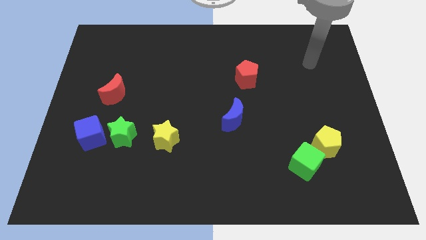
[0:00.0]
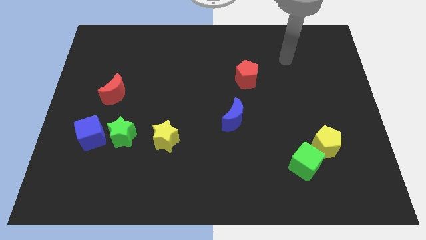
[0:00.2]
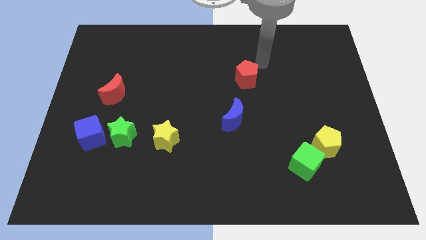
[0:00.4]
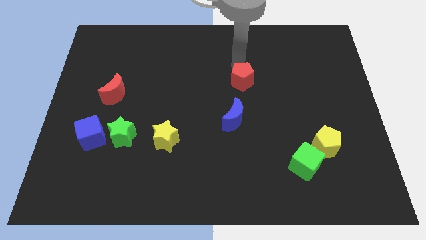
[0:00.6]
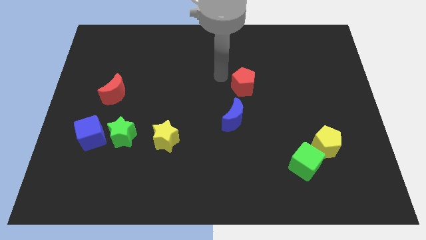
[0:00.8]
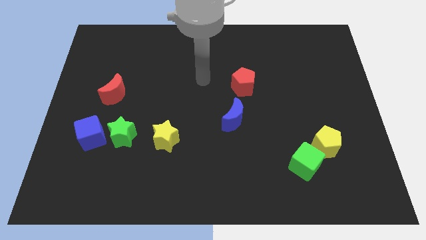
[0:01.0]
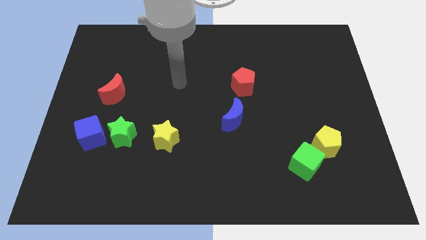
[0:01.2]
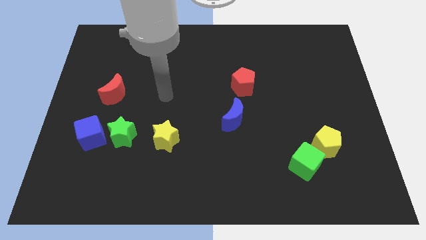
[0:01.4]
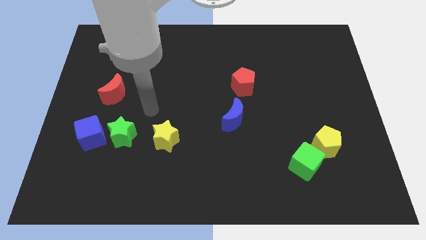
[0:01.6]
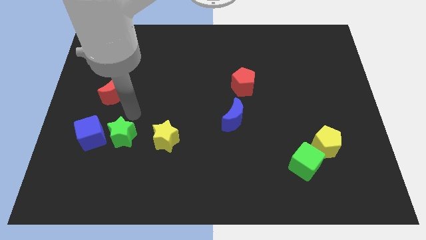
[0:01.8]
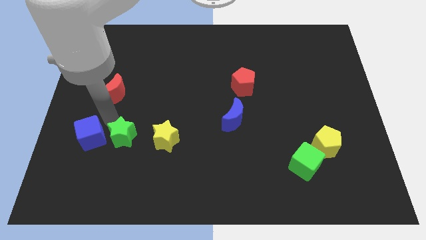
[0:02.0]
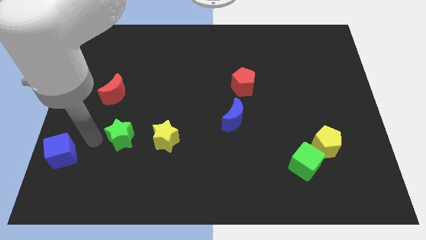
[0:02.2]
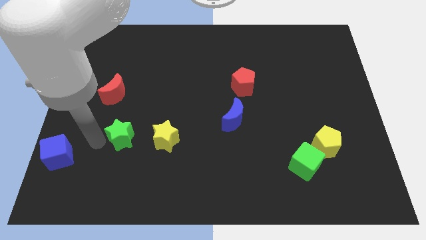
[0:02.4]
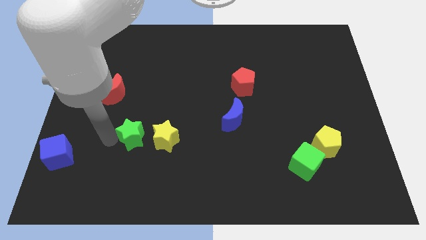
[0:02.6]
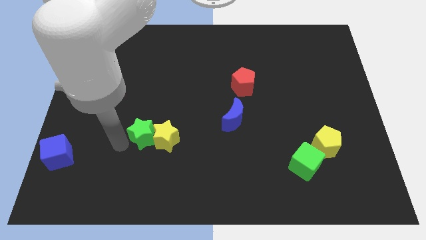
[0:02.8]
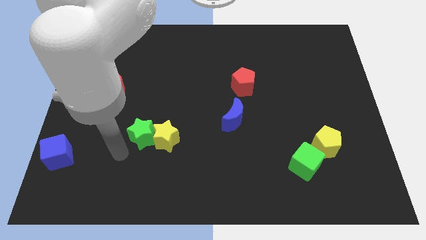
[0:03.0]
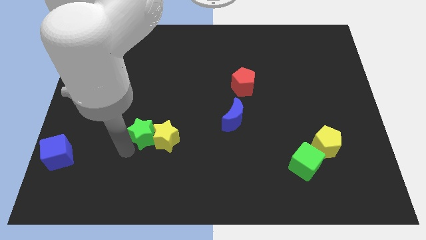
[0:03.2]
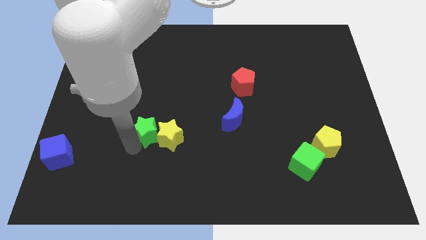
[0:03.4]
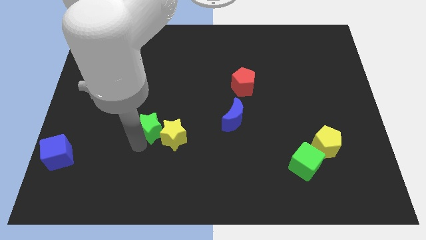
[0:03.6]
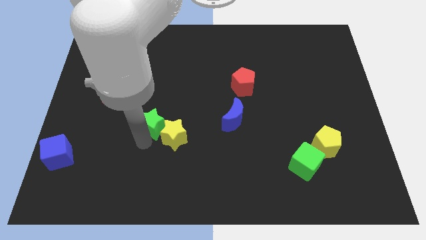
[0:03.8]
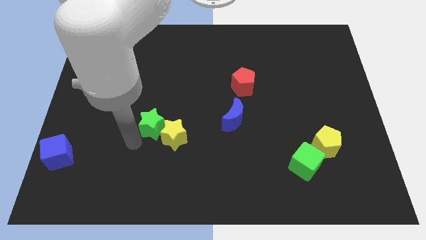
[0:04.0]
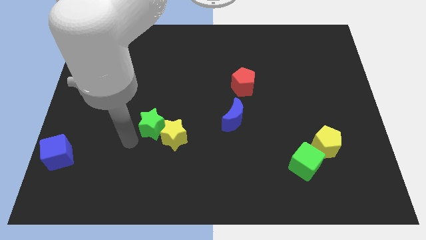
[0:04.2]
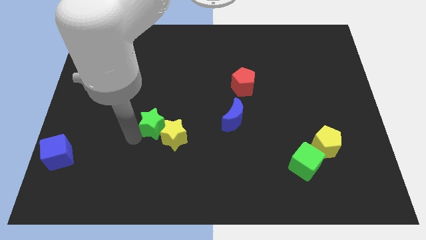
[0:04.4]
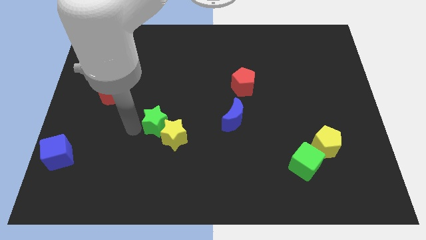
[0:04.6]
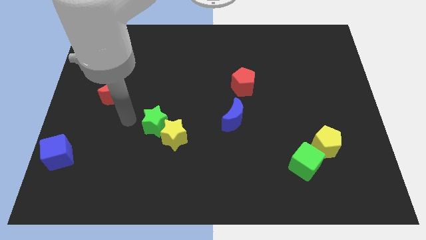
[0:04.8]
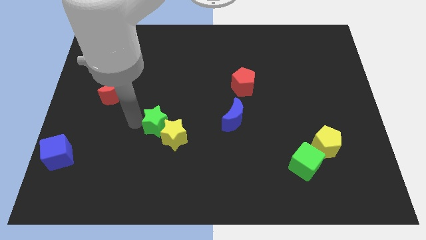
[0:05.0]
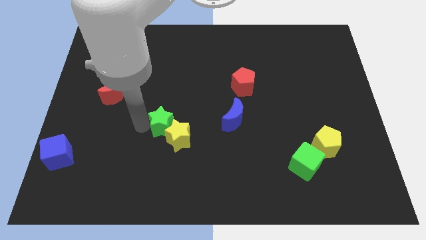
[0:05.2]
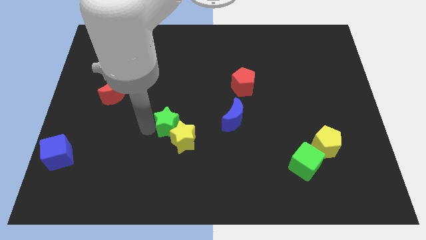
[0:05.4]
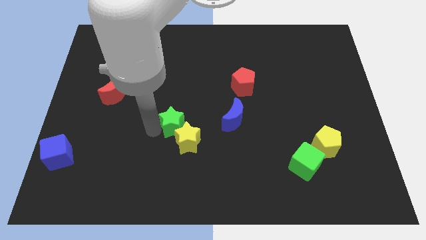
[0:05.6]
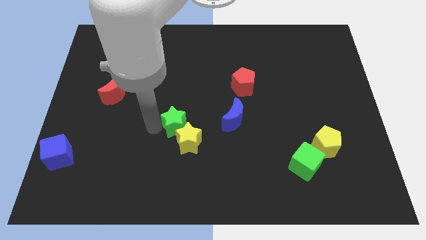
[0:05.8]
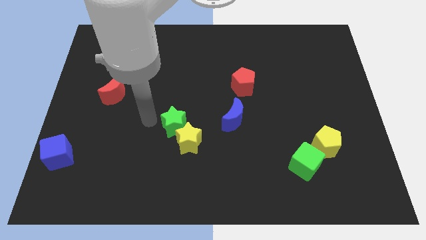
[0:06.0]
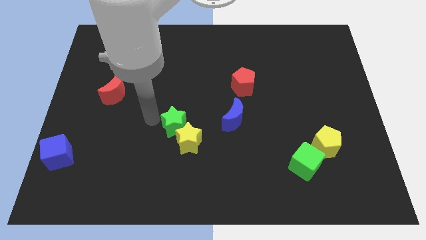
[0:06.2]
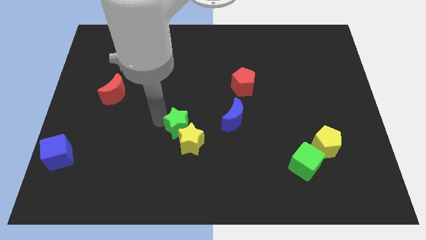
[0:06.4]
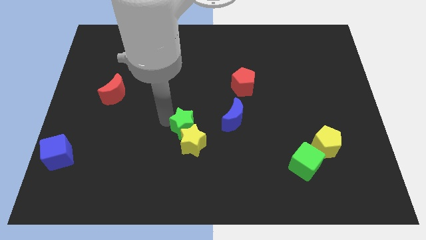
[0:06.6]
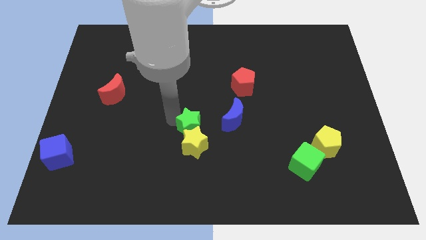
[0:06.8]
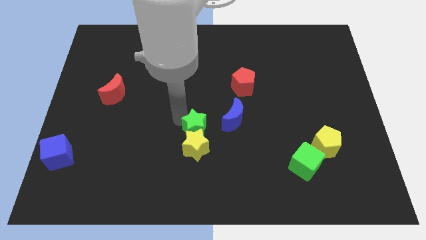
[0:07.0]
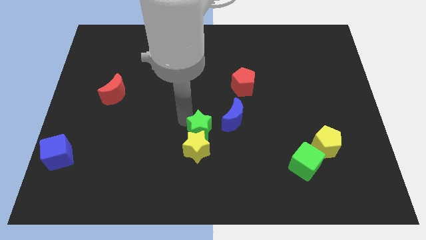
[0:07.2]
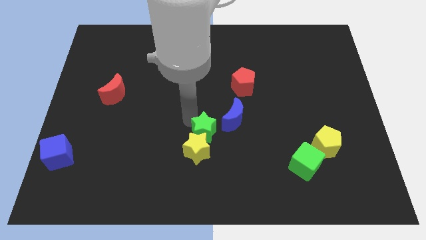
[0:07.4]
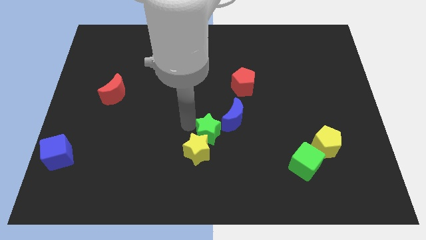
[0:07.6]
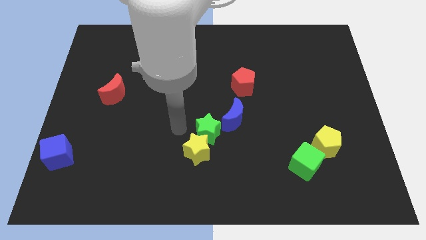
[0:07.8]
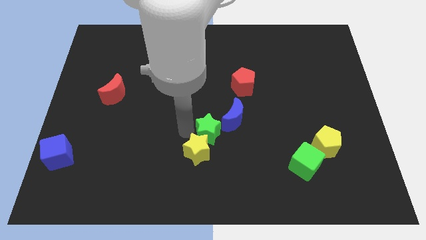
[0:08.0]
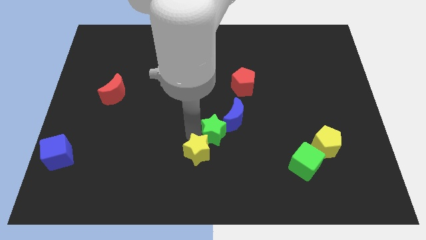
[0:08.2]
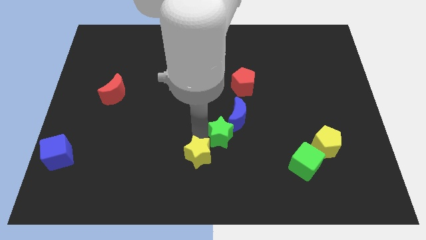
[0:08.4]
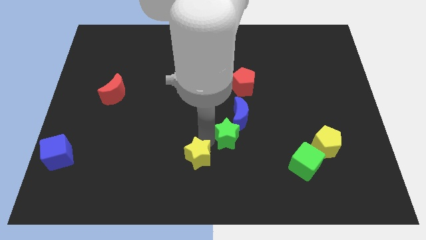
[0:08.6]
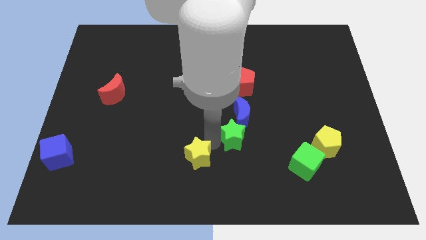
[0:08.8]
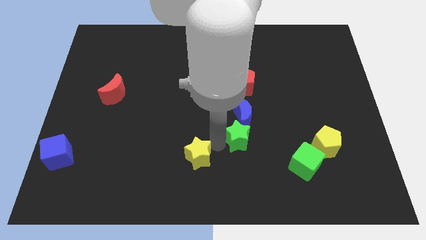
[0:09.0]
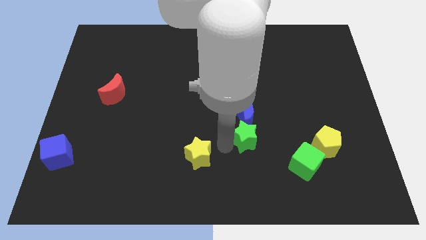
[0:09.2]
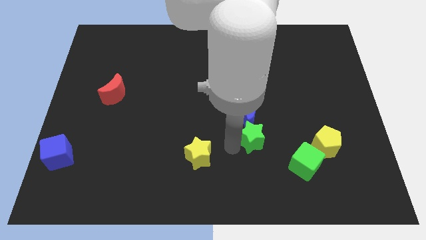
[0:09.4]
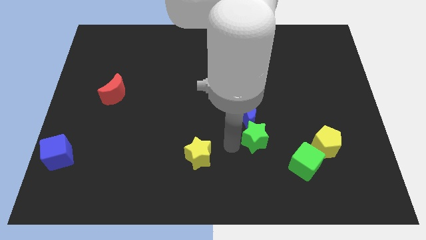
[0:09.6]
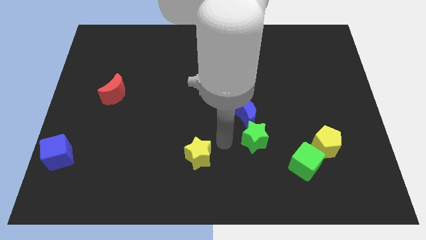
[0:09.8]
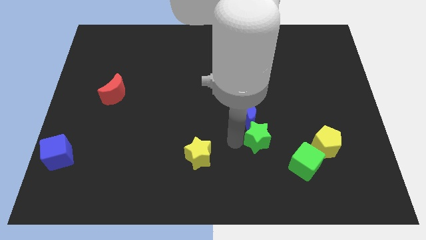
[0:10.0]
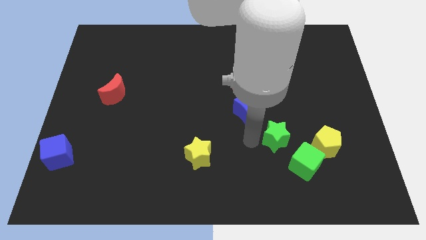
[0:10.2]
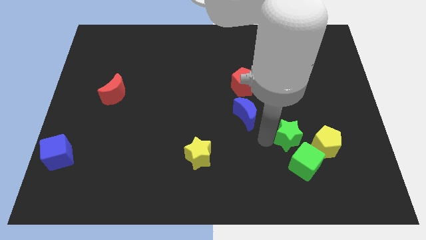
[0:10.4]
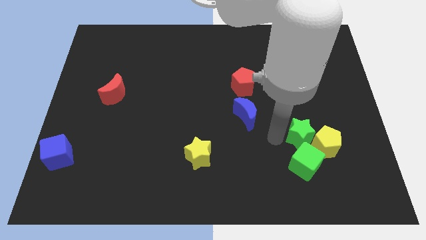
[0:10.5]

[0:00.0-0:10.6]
push the green star next to the yellow pentagon

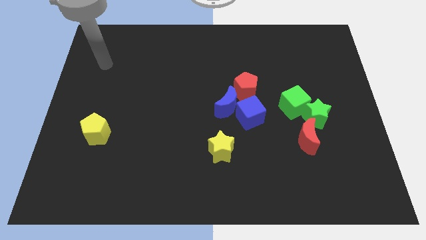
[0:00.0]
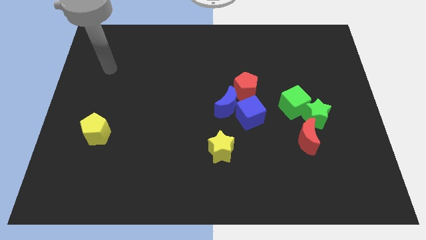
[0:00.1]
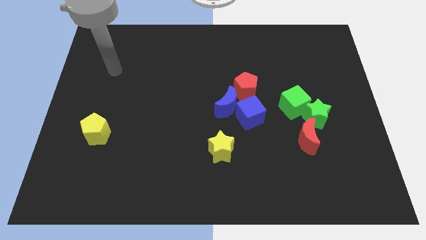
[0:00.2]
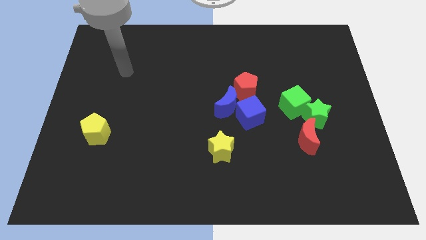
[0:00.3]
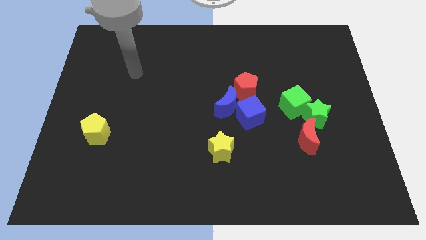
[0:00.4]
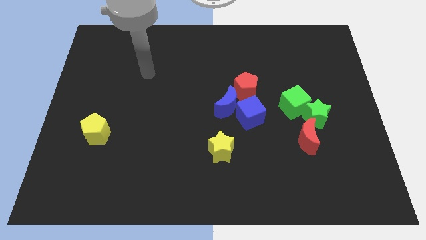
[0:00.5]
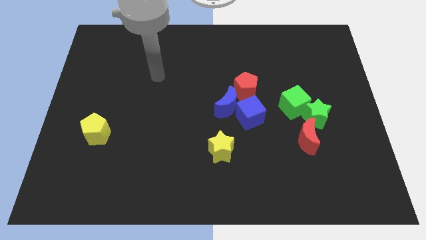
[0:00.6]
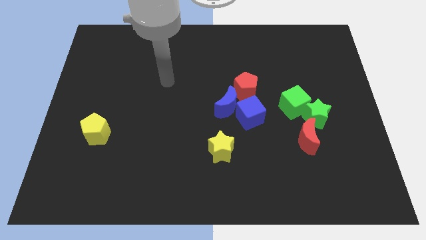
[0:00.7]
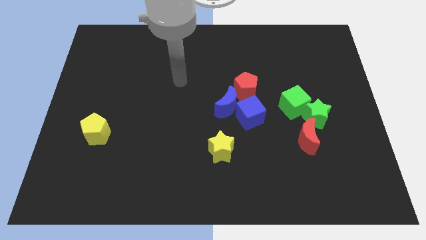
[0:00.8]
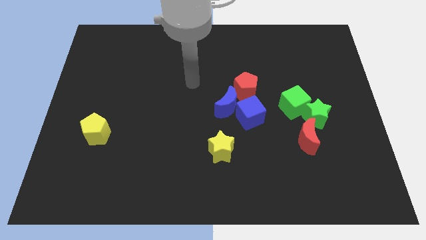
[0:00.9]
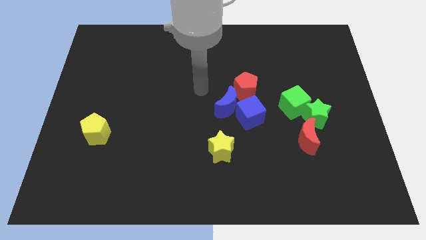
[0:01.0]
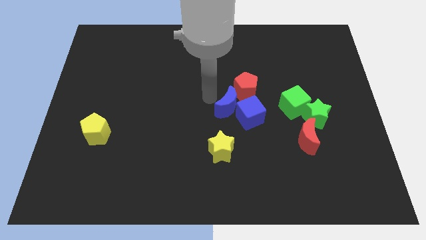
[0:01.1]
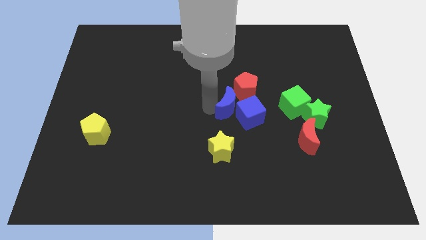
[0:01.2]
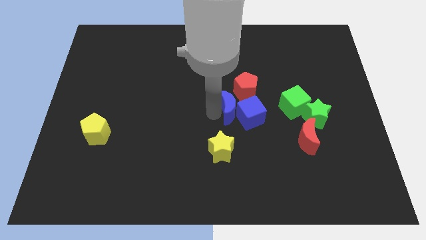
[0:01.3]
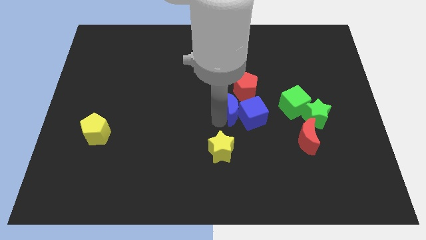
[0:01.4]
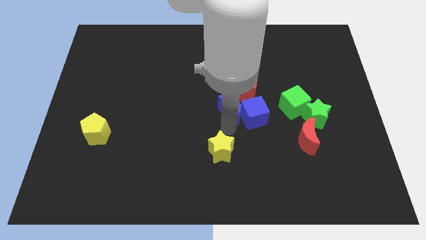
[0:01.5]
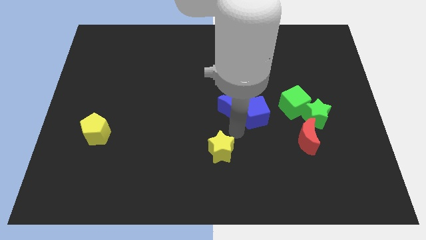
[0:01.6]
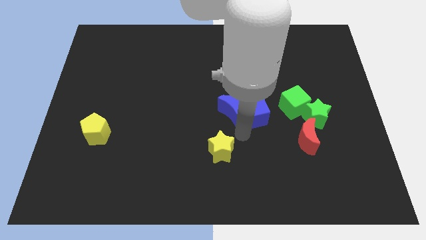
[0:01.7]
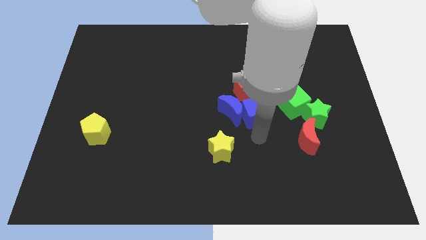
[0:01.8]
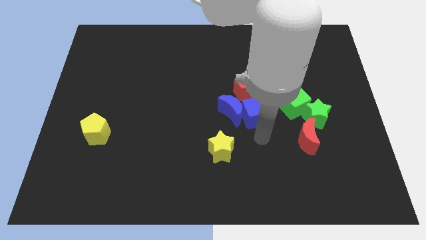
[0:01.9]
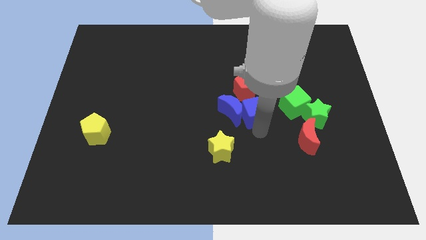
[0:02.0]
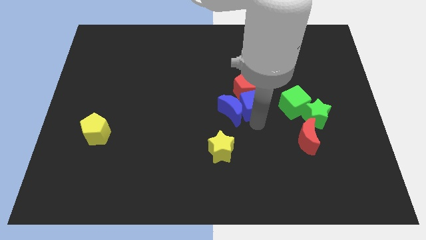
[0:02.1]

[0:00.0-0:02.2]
push the blue cube towards the red pentagon
